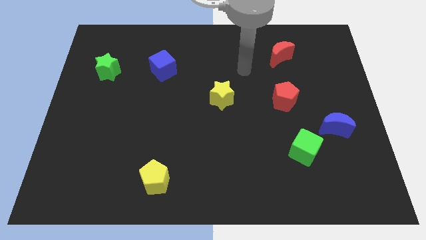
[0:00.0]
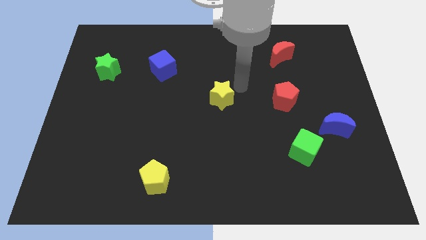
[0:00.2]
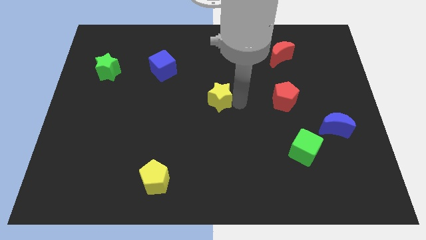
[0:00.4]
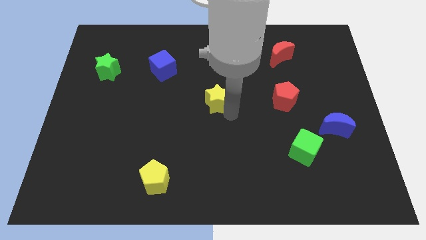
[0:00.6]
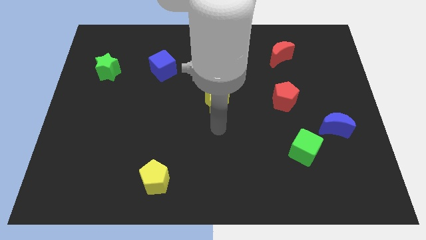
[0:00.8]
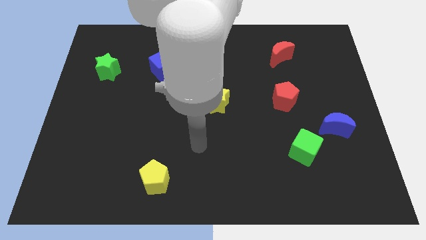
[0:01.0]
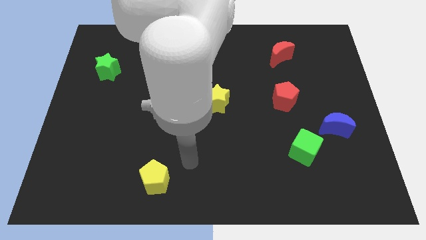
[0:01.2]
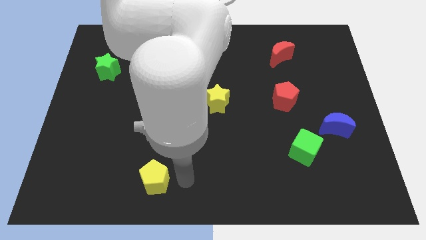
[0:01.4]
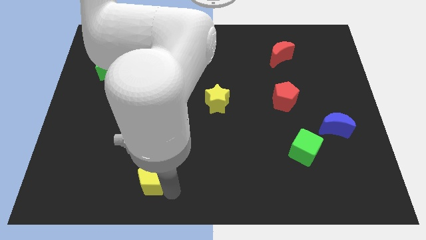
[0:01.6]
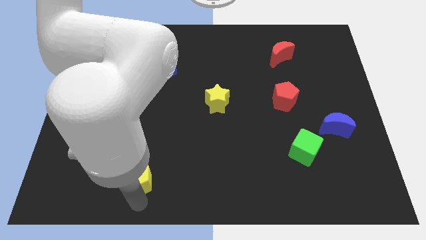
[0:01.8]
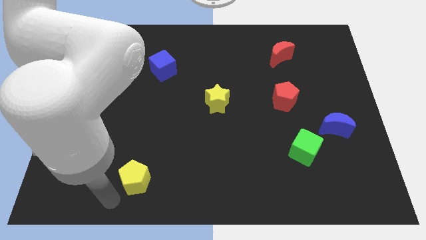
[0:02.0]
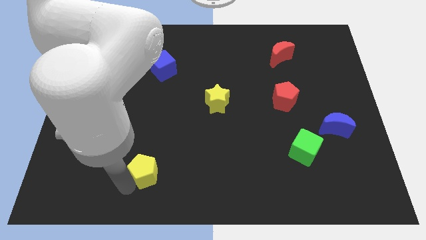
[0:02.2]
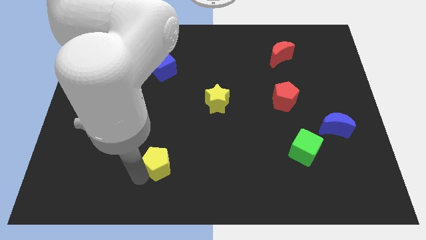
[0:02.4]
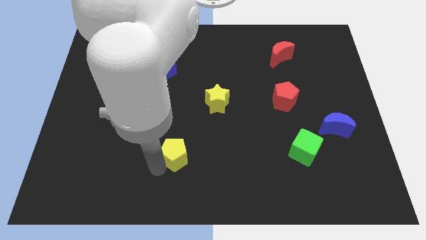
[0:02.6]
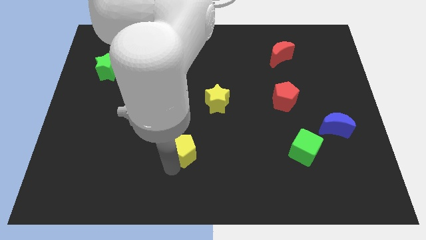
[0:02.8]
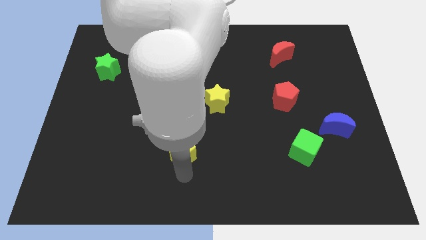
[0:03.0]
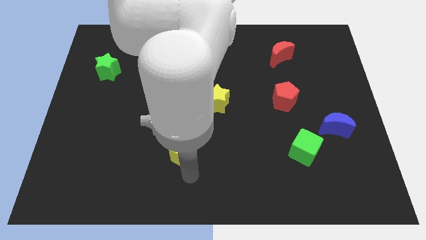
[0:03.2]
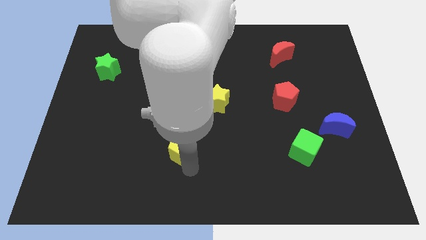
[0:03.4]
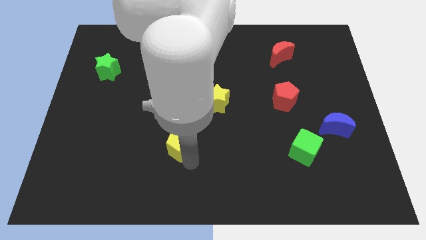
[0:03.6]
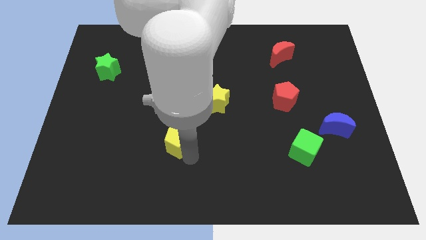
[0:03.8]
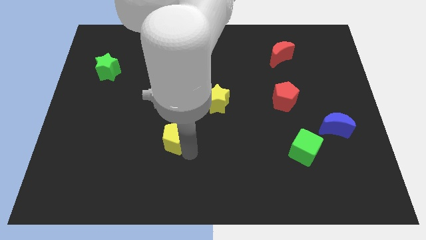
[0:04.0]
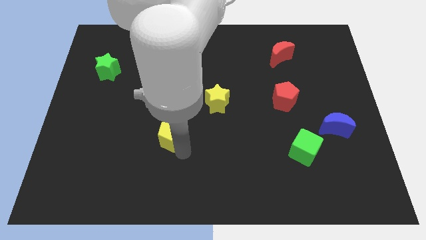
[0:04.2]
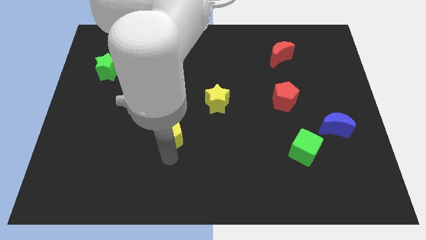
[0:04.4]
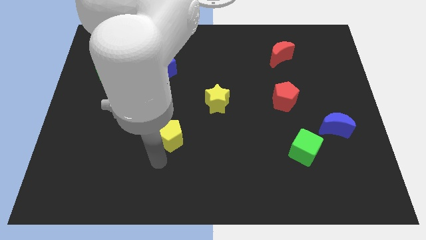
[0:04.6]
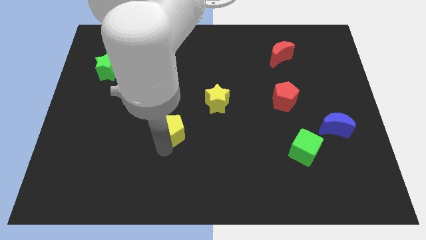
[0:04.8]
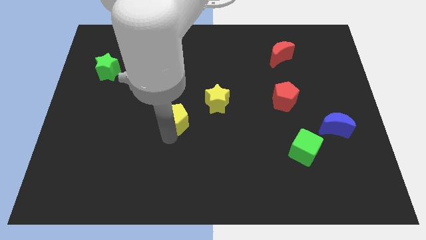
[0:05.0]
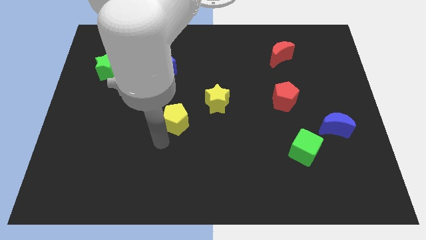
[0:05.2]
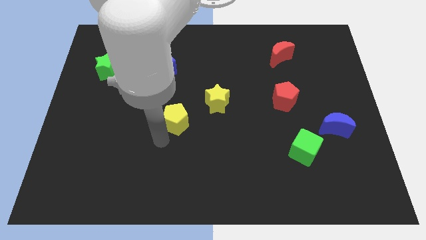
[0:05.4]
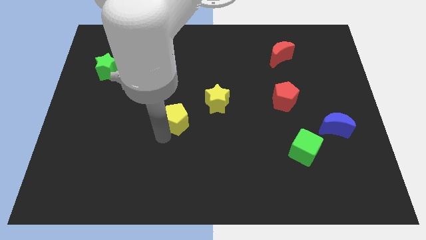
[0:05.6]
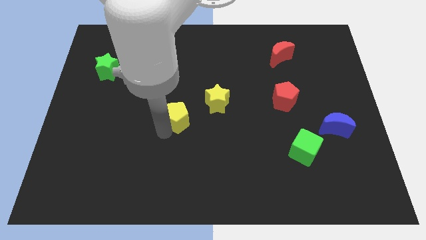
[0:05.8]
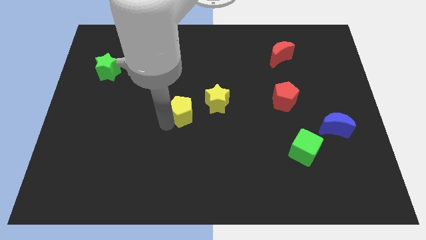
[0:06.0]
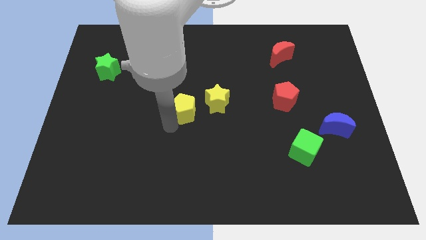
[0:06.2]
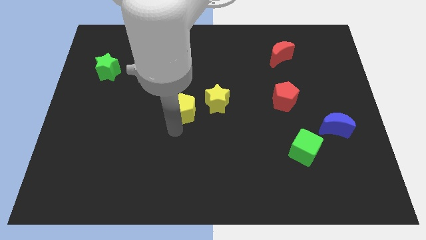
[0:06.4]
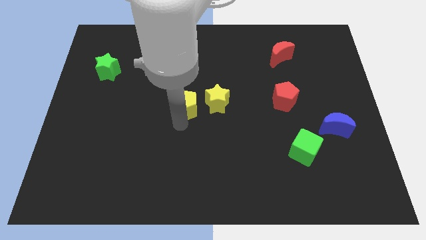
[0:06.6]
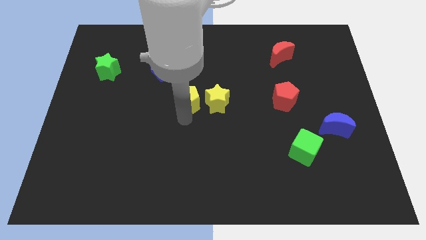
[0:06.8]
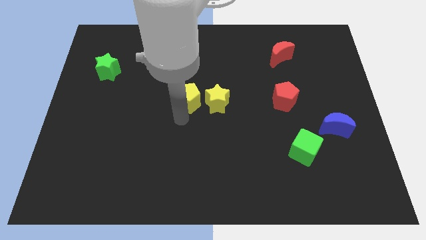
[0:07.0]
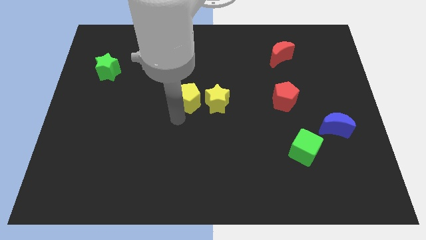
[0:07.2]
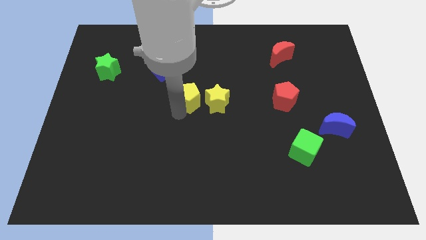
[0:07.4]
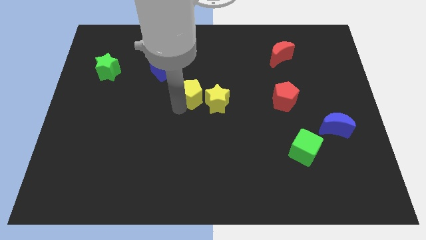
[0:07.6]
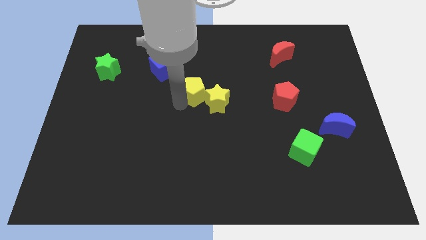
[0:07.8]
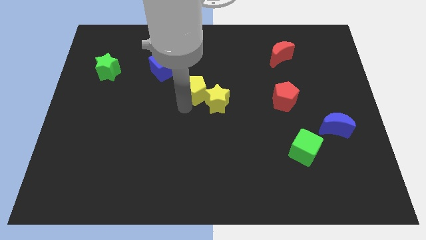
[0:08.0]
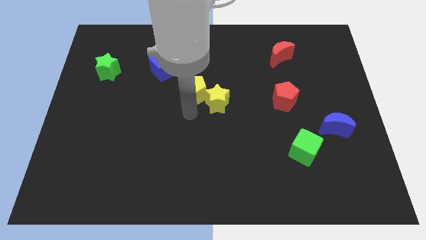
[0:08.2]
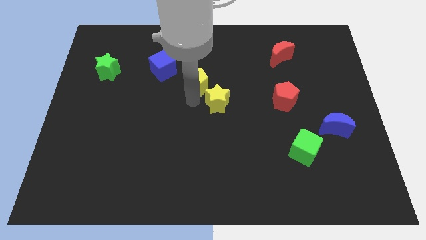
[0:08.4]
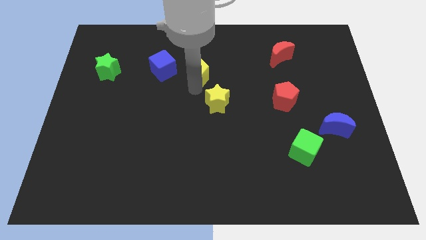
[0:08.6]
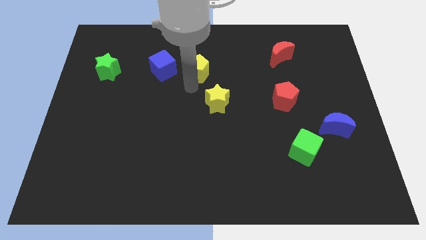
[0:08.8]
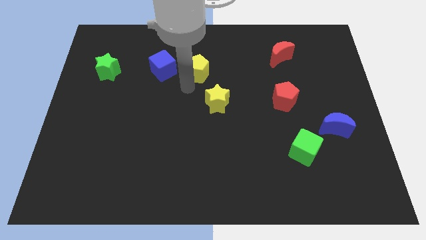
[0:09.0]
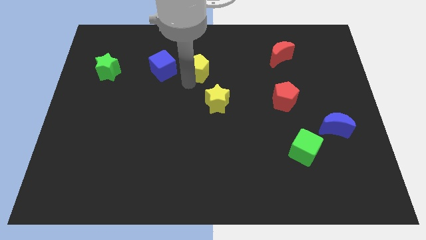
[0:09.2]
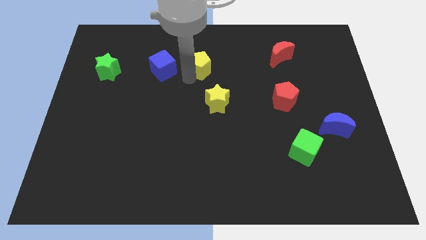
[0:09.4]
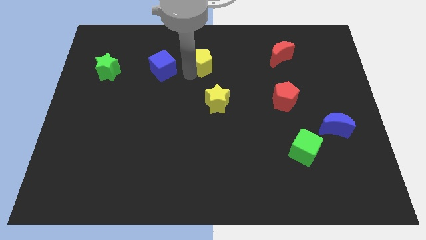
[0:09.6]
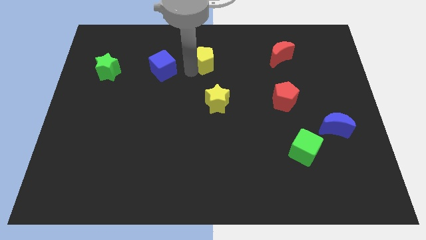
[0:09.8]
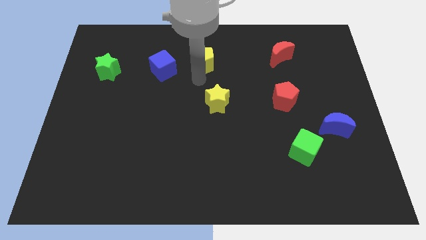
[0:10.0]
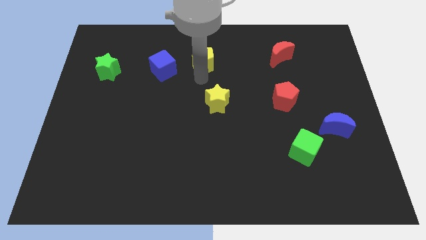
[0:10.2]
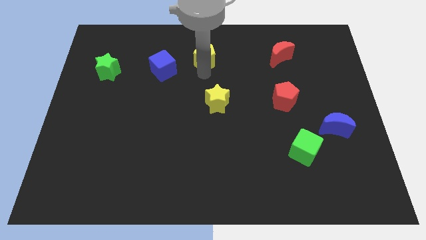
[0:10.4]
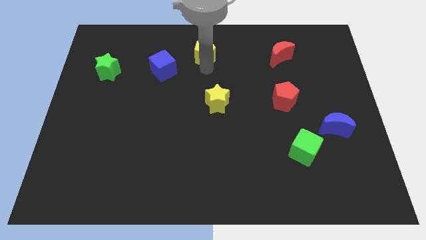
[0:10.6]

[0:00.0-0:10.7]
slide the yellow pentagon to the top side

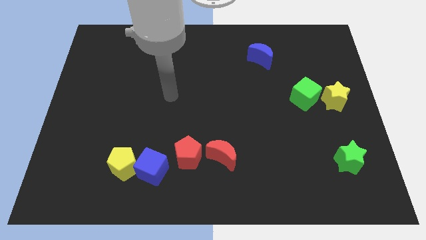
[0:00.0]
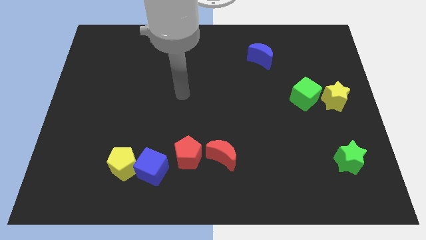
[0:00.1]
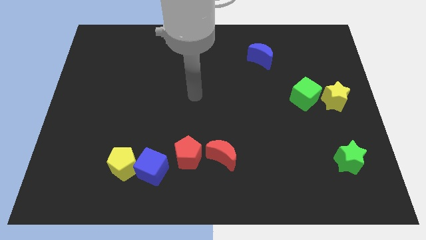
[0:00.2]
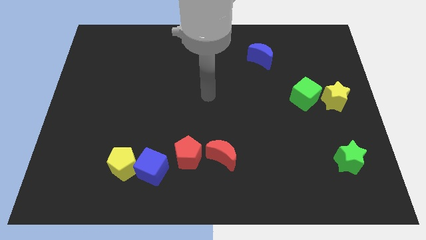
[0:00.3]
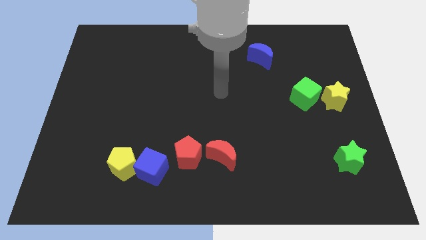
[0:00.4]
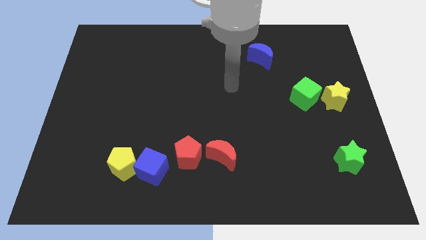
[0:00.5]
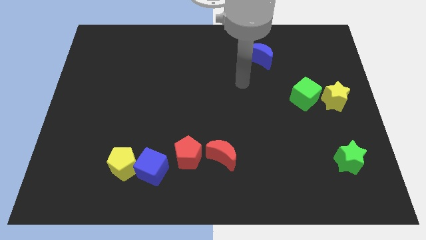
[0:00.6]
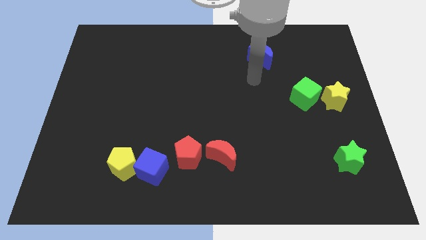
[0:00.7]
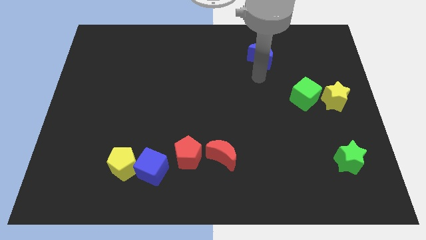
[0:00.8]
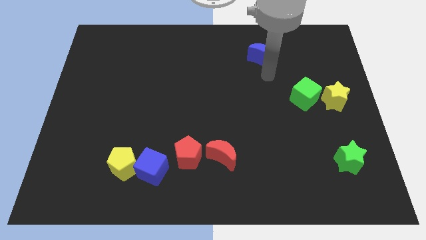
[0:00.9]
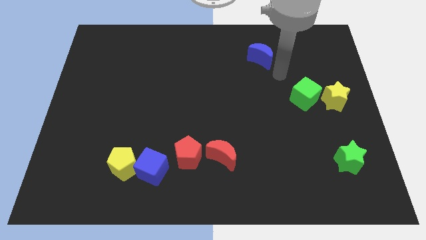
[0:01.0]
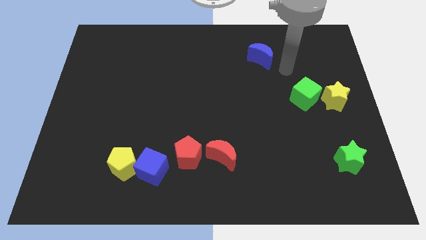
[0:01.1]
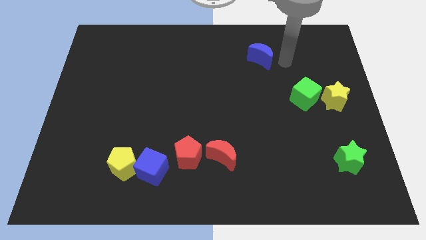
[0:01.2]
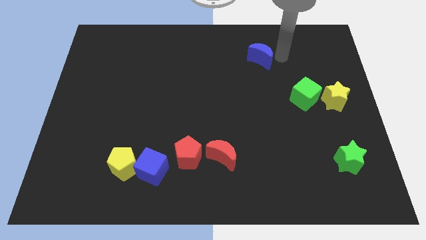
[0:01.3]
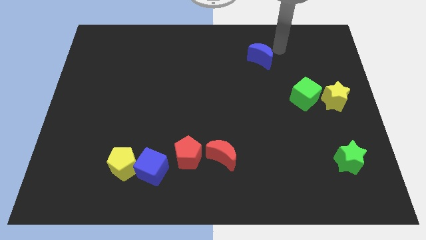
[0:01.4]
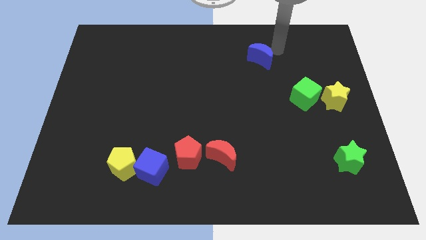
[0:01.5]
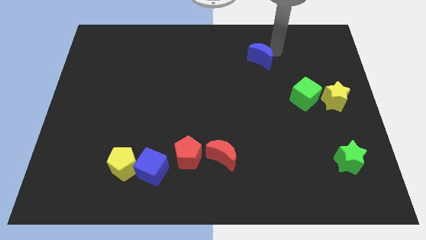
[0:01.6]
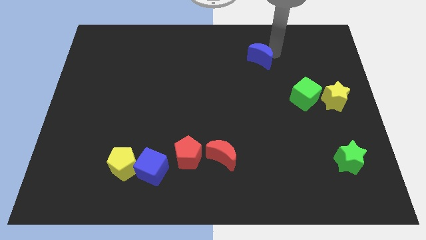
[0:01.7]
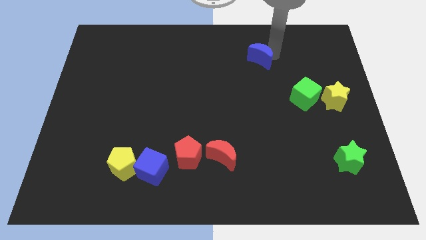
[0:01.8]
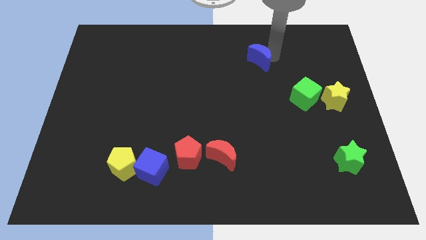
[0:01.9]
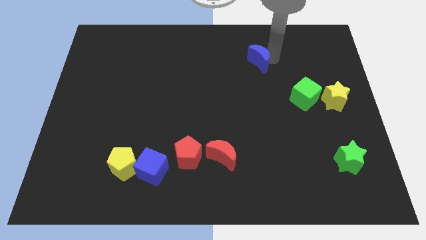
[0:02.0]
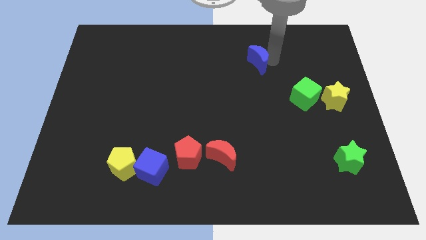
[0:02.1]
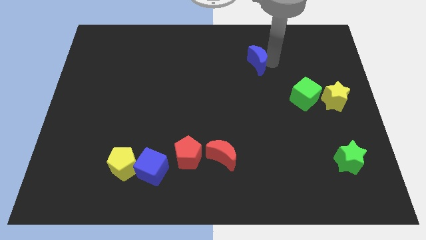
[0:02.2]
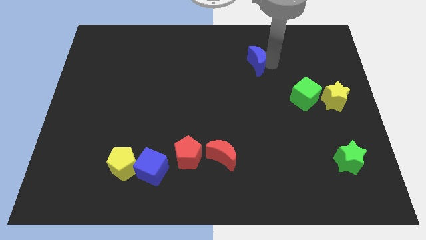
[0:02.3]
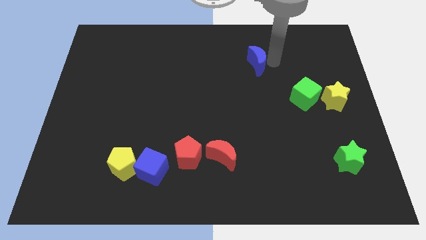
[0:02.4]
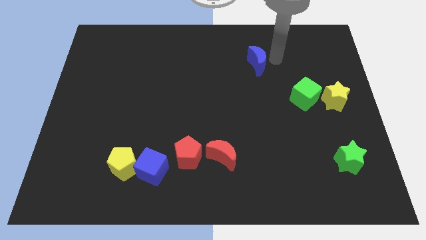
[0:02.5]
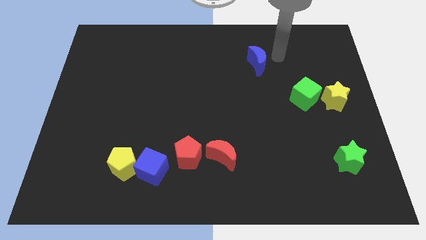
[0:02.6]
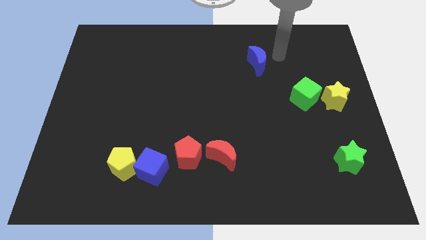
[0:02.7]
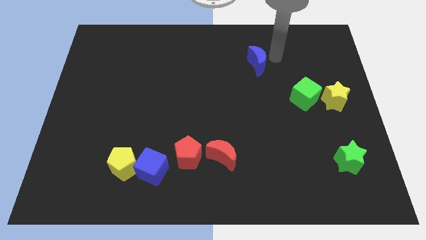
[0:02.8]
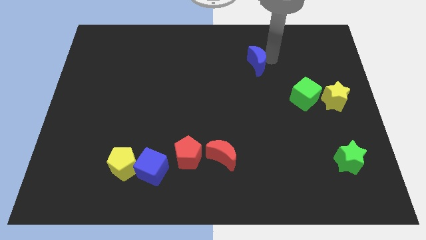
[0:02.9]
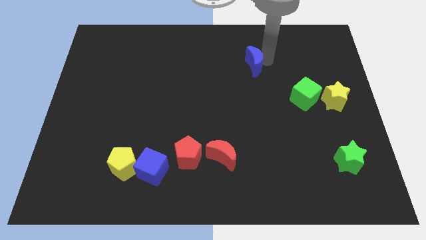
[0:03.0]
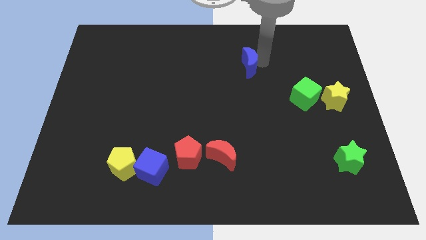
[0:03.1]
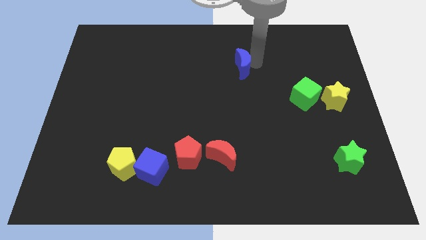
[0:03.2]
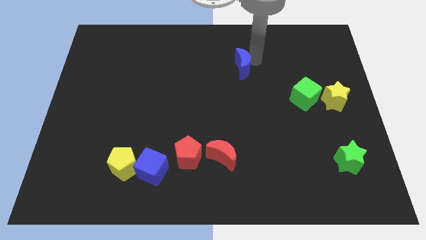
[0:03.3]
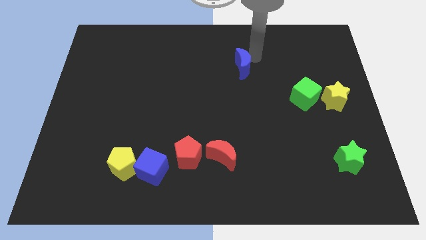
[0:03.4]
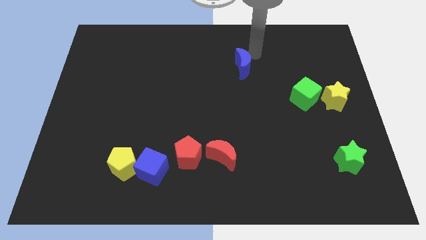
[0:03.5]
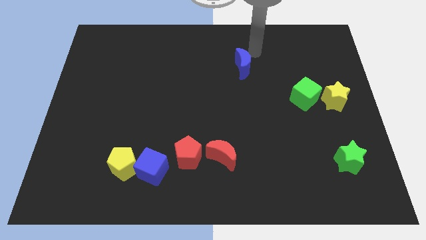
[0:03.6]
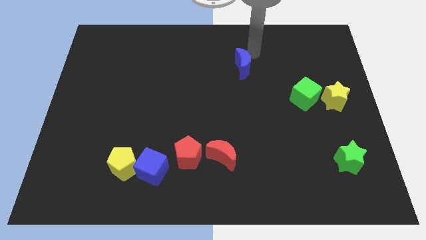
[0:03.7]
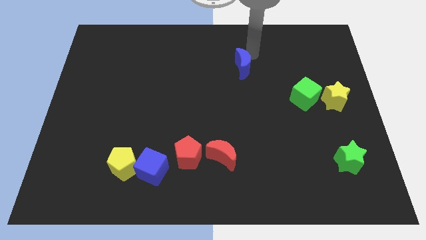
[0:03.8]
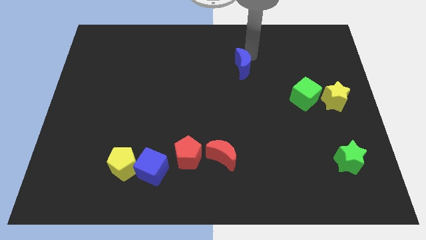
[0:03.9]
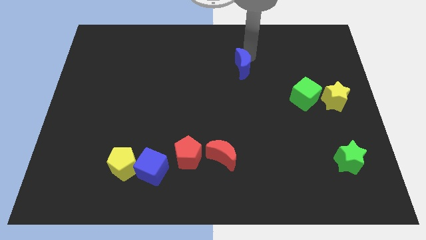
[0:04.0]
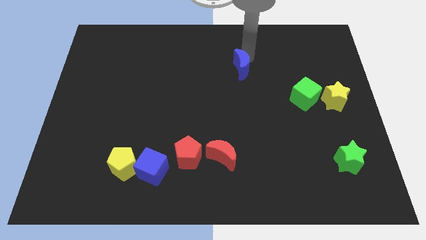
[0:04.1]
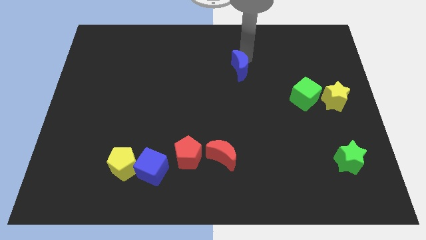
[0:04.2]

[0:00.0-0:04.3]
move the blue moon to the middle of the board
